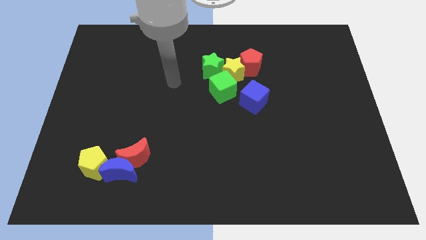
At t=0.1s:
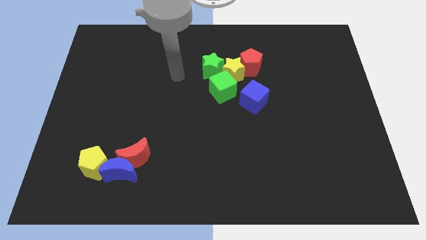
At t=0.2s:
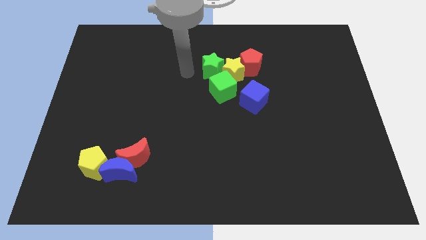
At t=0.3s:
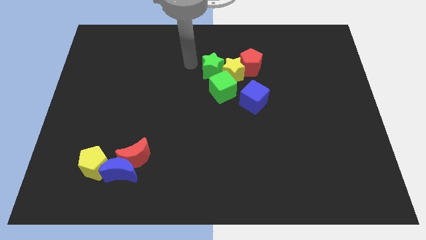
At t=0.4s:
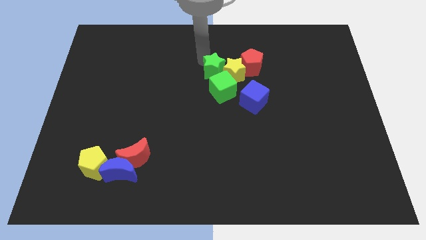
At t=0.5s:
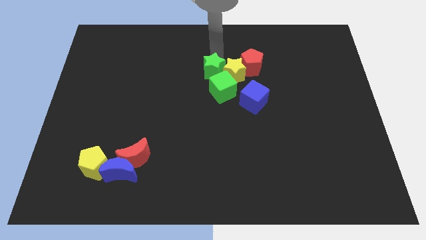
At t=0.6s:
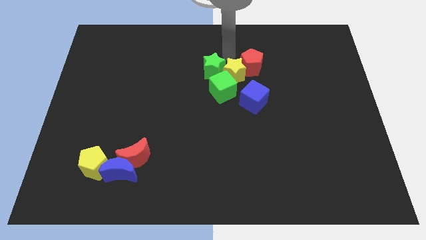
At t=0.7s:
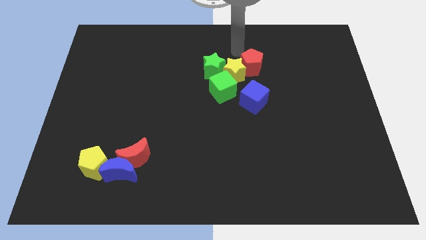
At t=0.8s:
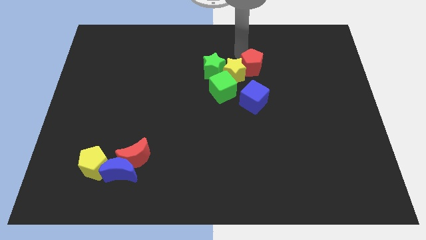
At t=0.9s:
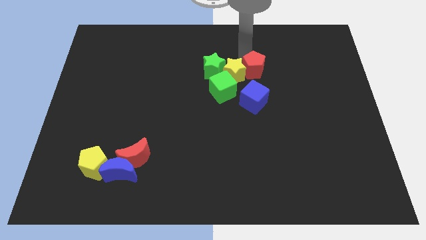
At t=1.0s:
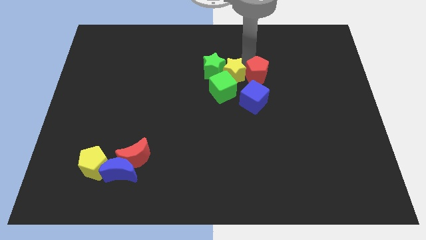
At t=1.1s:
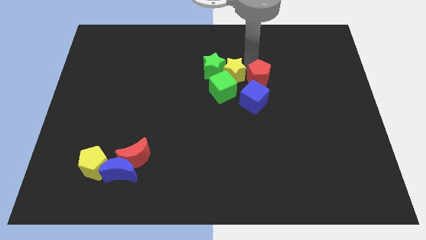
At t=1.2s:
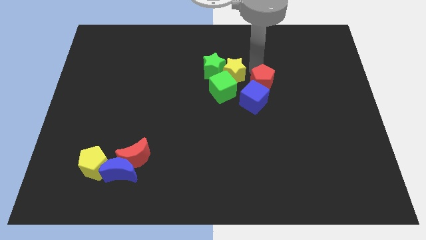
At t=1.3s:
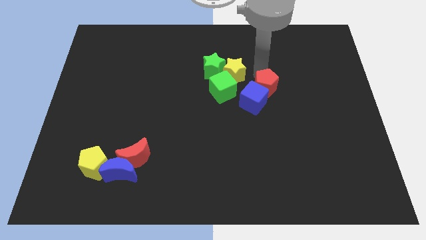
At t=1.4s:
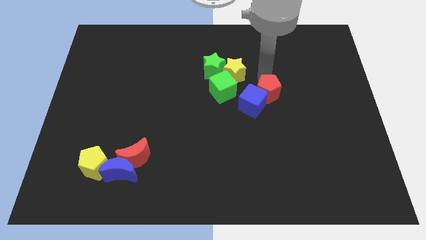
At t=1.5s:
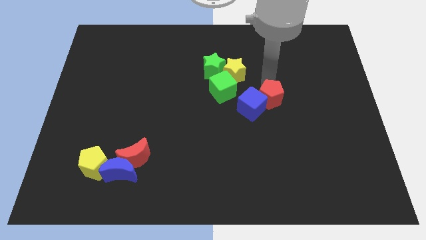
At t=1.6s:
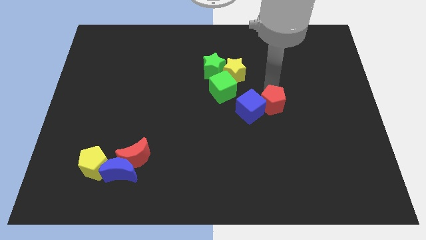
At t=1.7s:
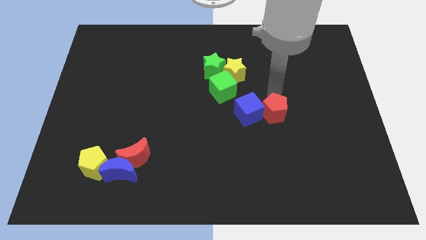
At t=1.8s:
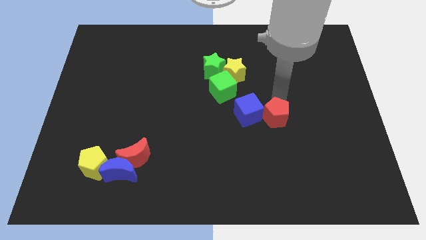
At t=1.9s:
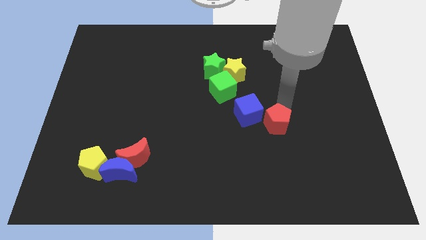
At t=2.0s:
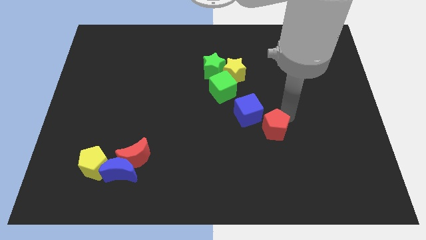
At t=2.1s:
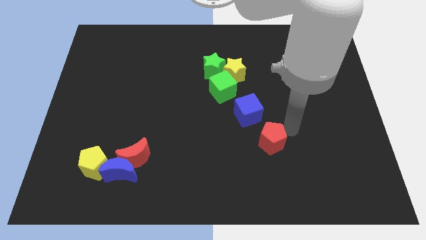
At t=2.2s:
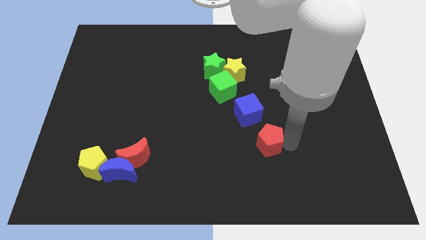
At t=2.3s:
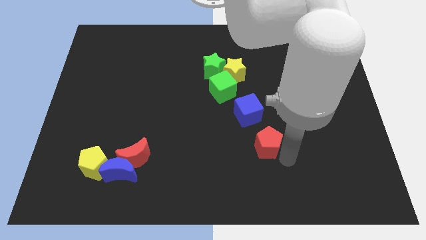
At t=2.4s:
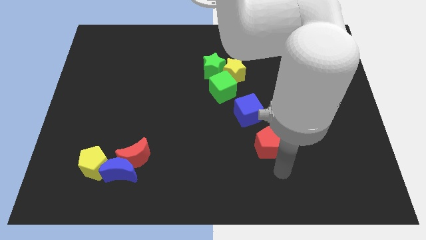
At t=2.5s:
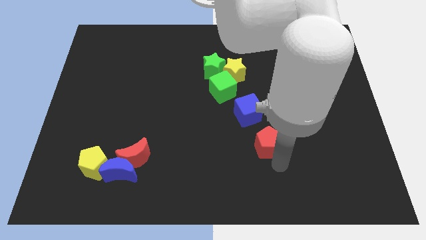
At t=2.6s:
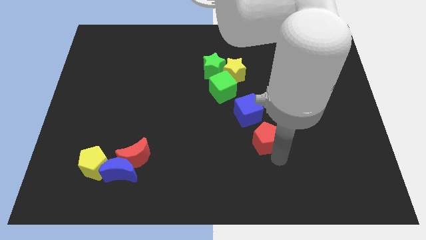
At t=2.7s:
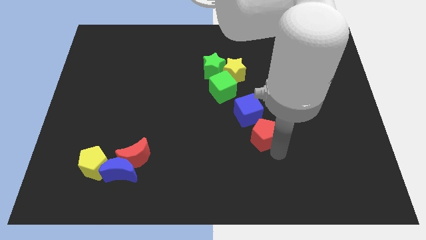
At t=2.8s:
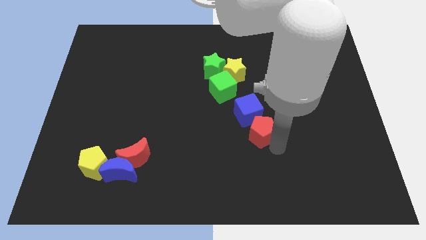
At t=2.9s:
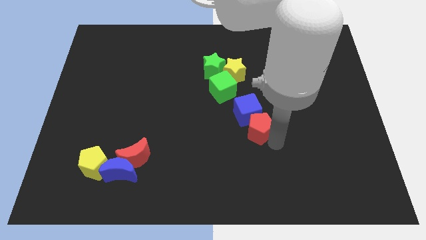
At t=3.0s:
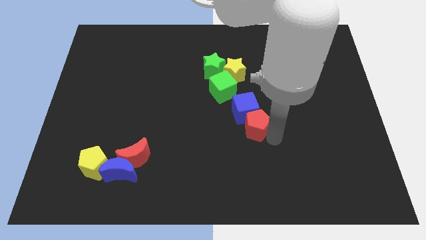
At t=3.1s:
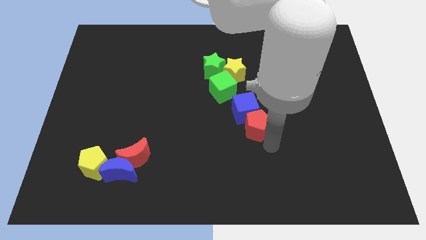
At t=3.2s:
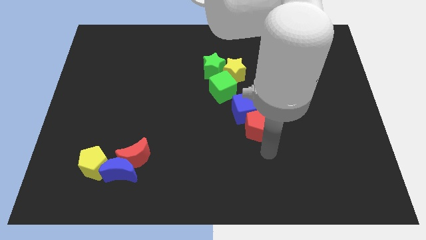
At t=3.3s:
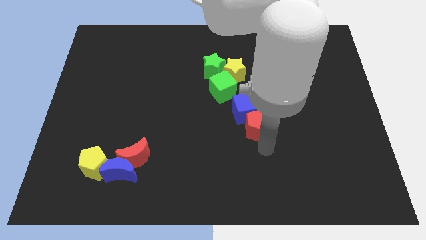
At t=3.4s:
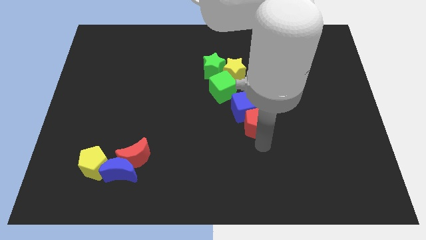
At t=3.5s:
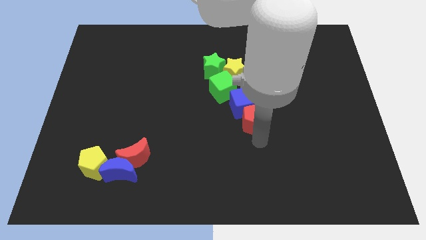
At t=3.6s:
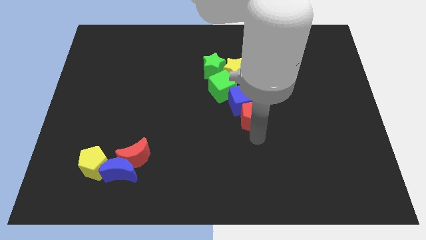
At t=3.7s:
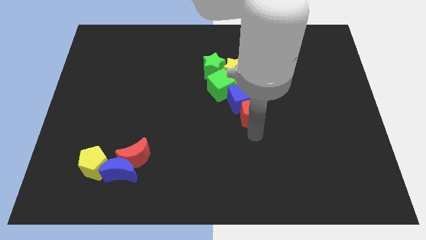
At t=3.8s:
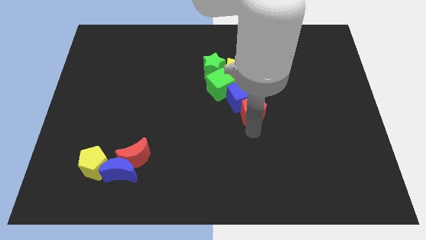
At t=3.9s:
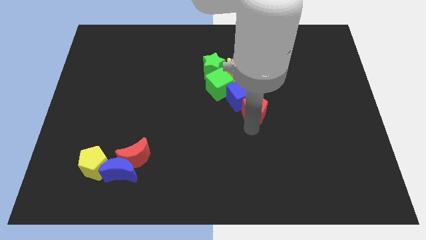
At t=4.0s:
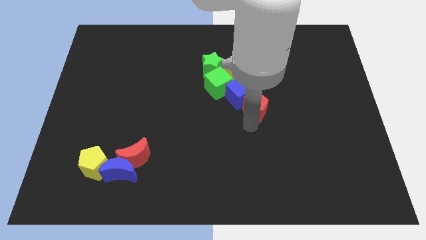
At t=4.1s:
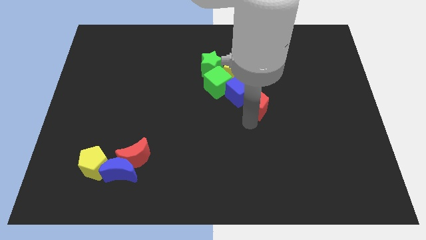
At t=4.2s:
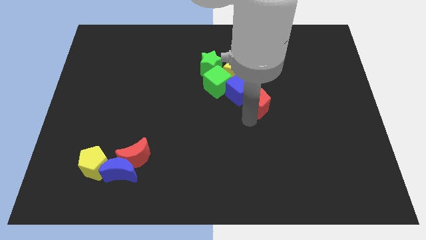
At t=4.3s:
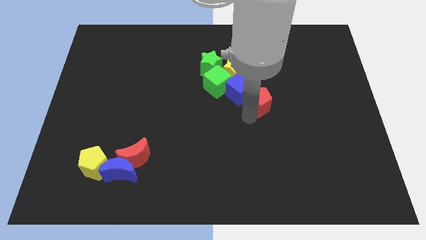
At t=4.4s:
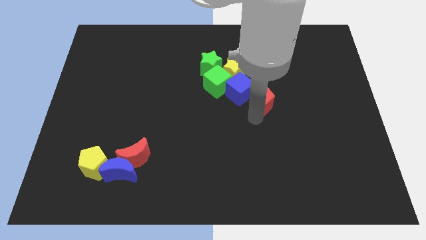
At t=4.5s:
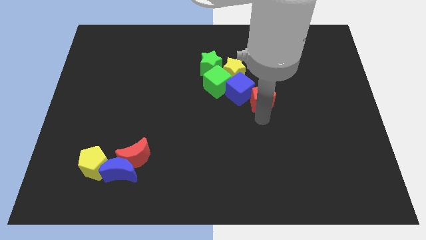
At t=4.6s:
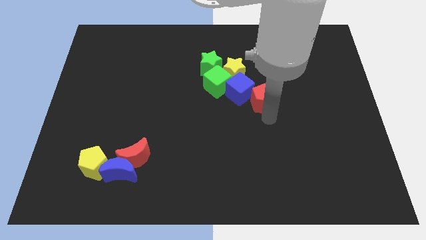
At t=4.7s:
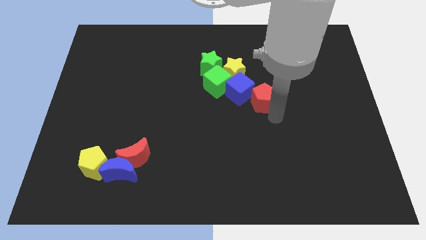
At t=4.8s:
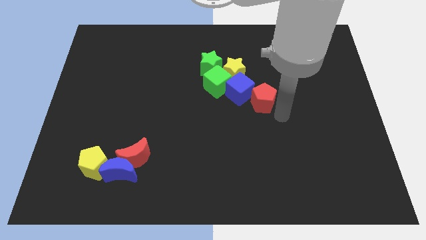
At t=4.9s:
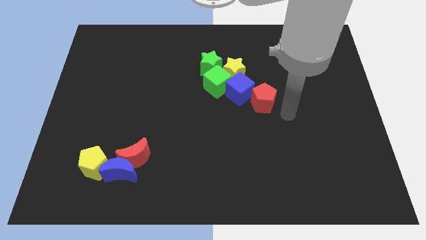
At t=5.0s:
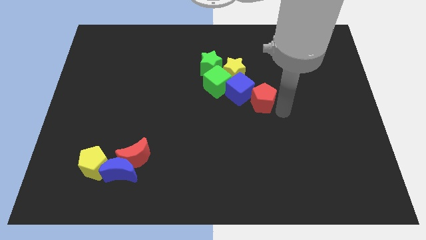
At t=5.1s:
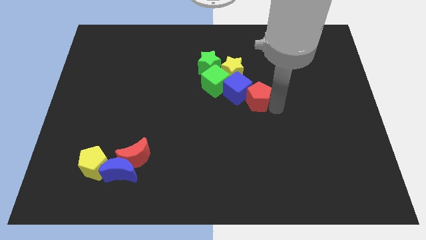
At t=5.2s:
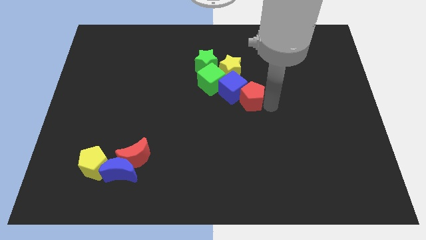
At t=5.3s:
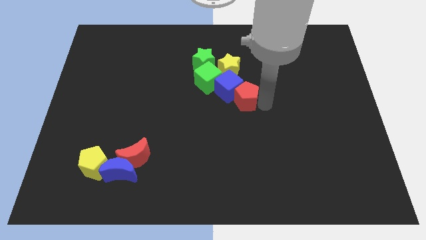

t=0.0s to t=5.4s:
move the red pentagon slightly diagonally down and left

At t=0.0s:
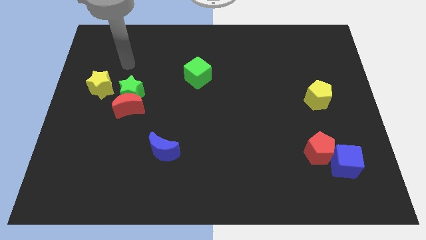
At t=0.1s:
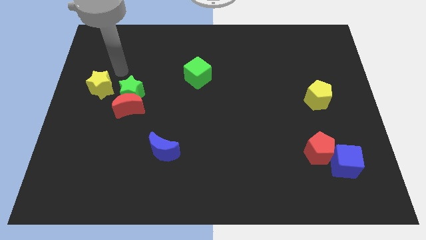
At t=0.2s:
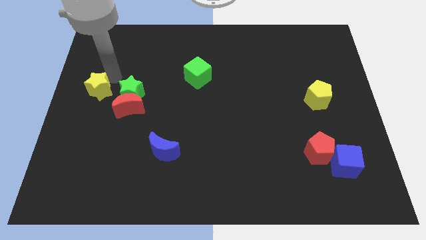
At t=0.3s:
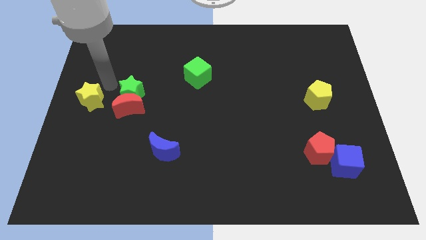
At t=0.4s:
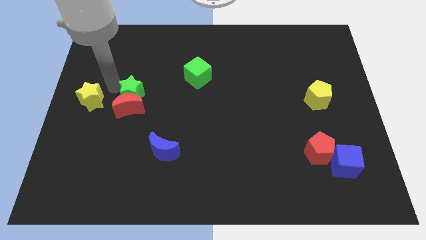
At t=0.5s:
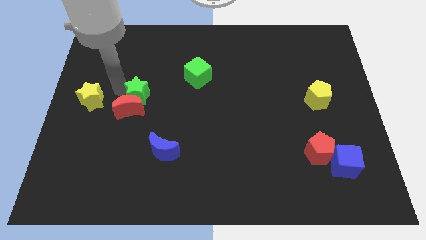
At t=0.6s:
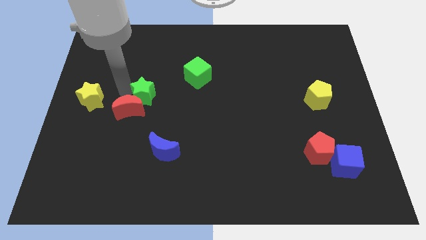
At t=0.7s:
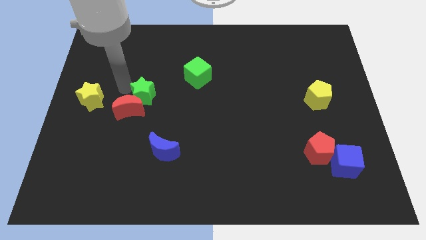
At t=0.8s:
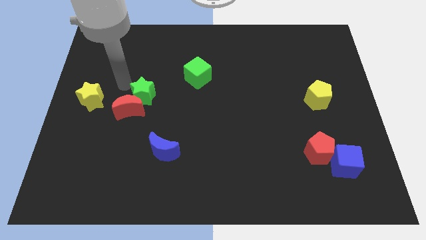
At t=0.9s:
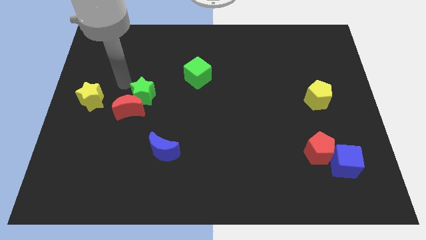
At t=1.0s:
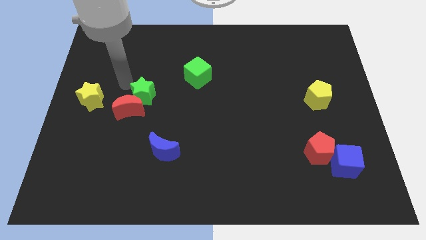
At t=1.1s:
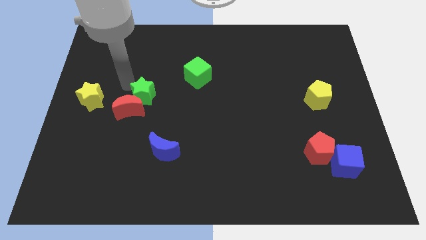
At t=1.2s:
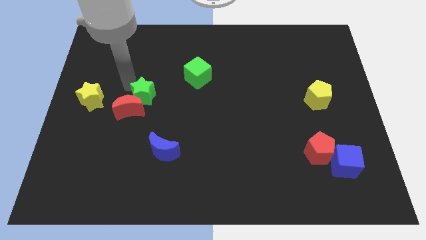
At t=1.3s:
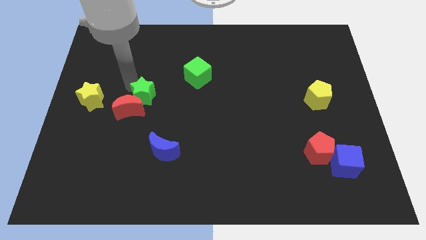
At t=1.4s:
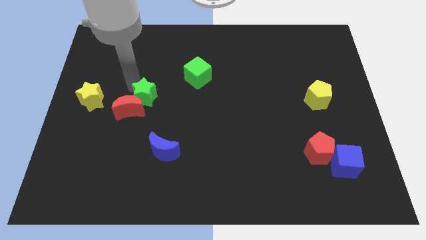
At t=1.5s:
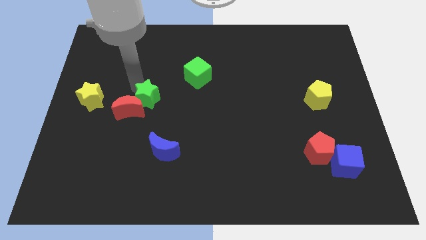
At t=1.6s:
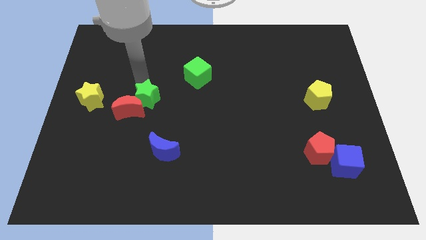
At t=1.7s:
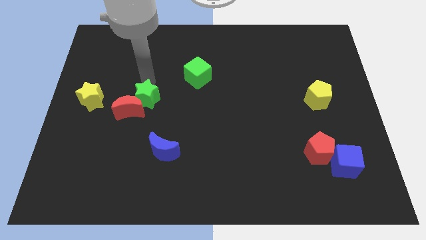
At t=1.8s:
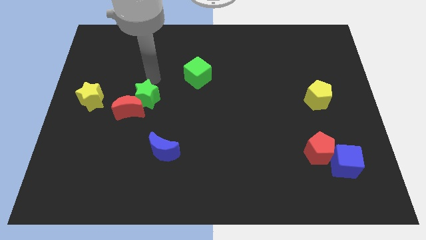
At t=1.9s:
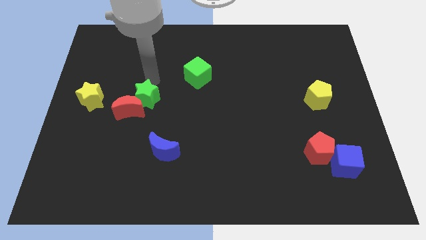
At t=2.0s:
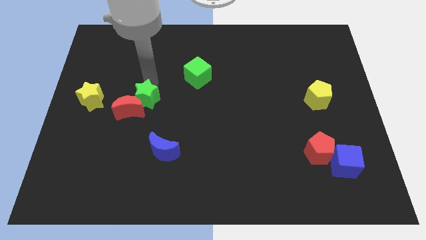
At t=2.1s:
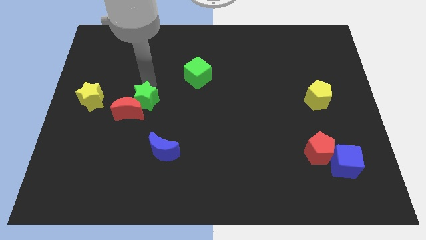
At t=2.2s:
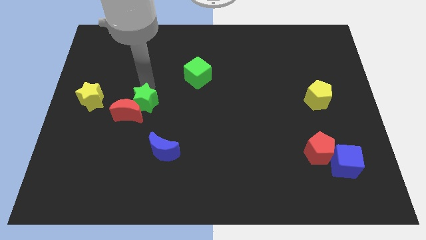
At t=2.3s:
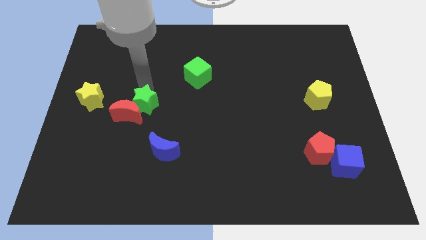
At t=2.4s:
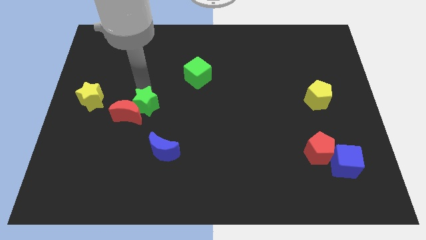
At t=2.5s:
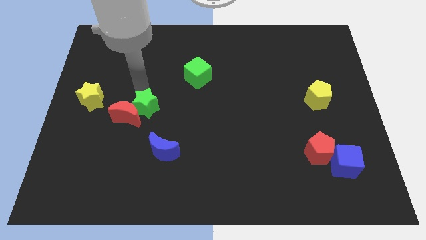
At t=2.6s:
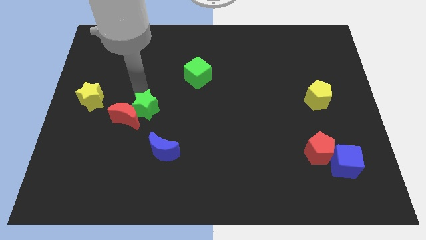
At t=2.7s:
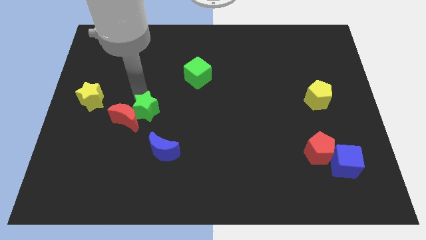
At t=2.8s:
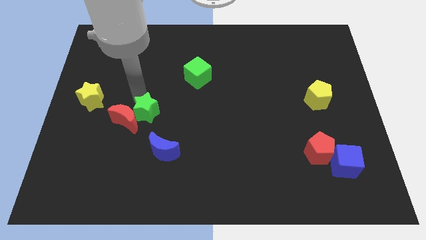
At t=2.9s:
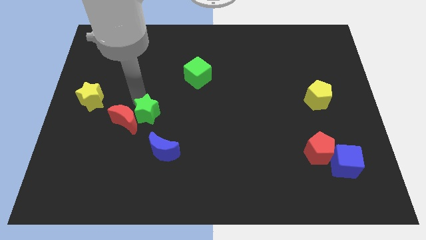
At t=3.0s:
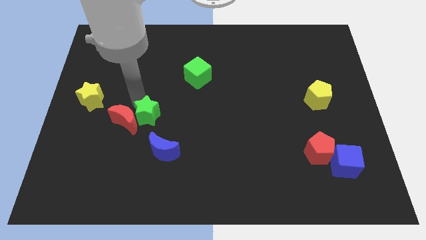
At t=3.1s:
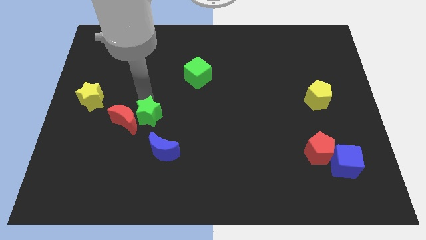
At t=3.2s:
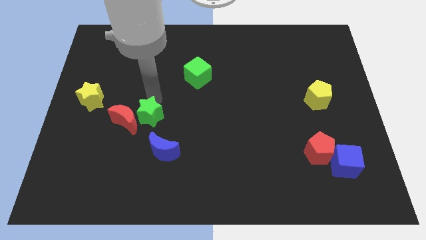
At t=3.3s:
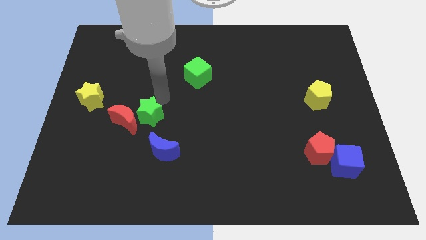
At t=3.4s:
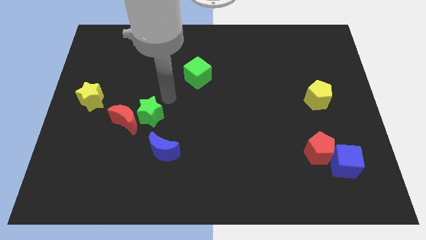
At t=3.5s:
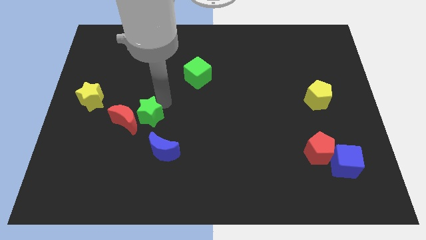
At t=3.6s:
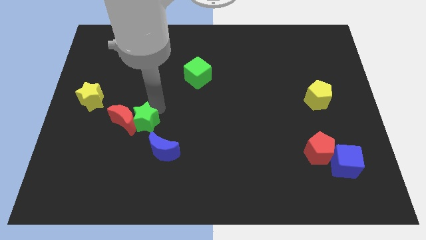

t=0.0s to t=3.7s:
slide the green star somewhat down
